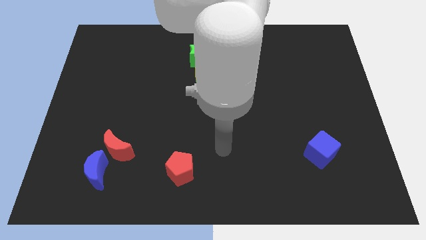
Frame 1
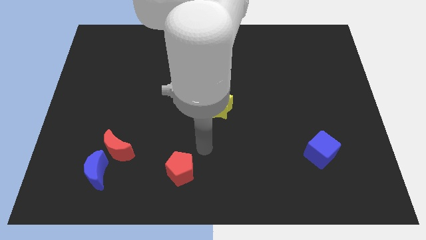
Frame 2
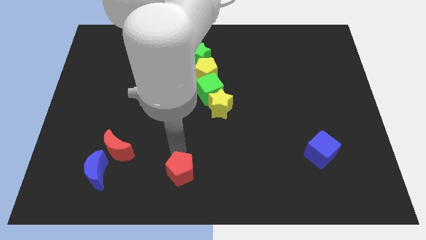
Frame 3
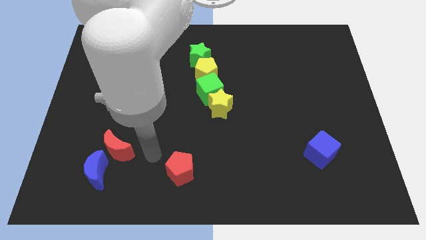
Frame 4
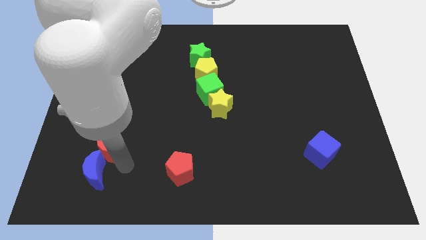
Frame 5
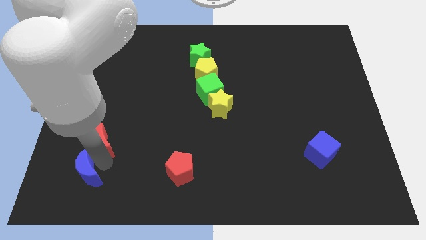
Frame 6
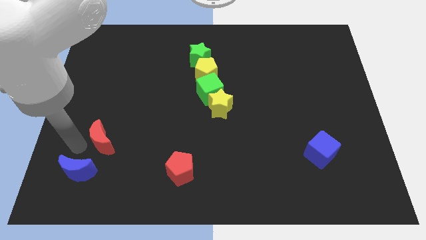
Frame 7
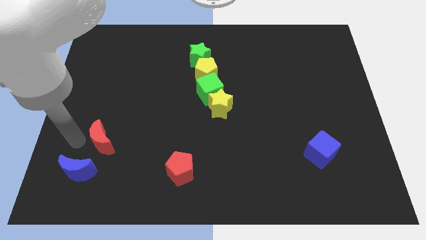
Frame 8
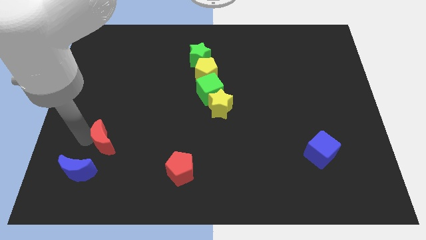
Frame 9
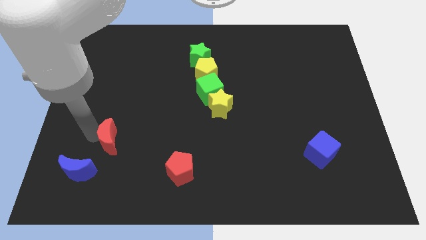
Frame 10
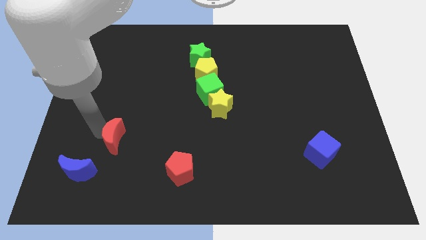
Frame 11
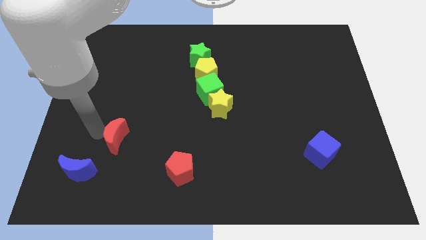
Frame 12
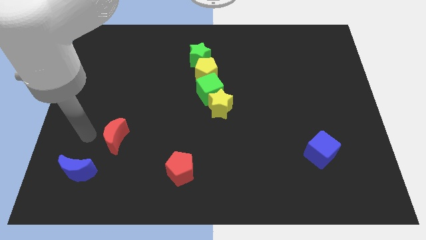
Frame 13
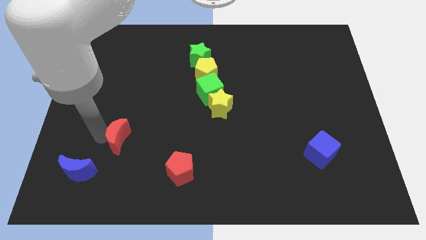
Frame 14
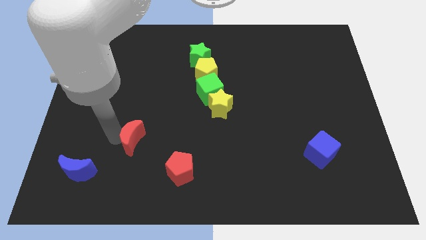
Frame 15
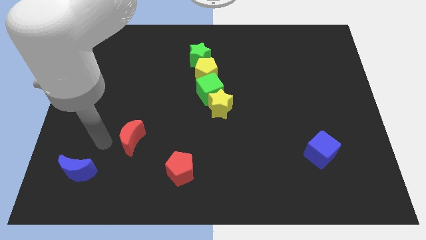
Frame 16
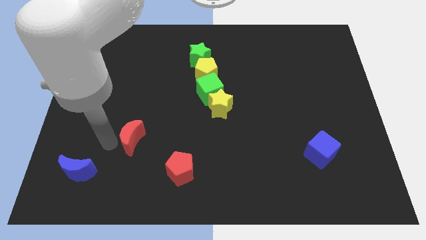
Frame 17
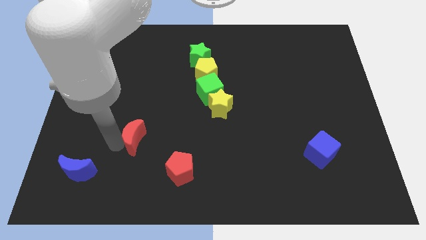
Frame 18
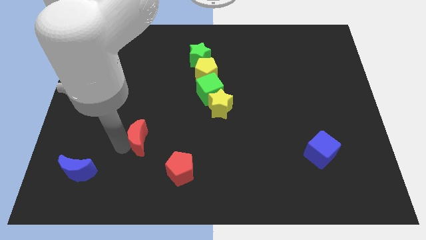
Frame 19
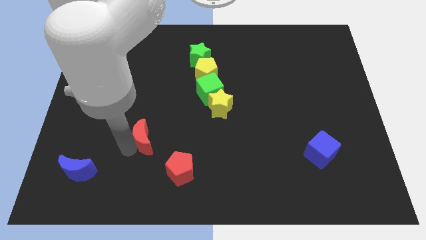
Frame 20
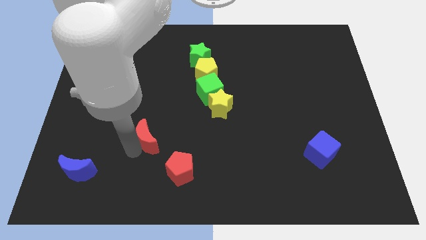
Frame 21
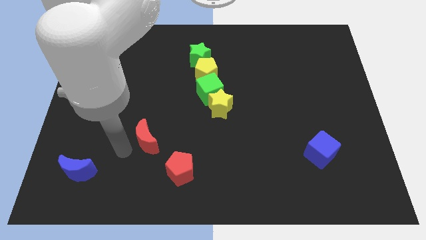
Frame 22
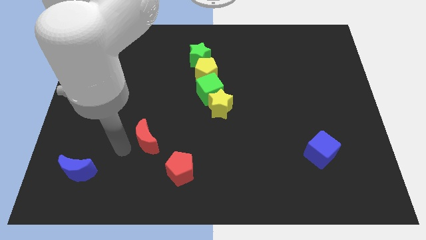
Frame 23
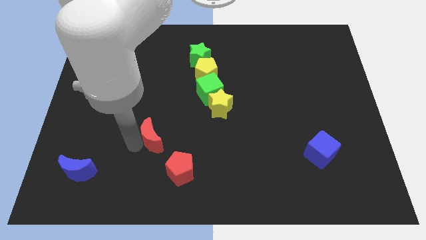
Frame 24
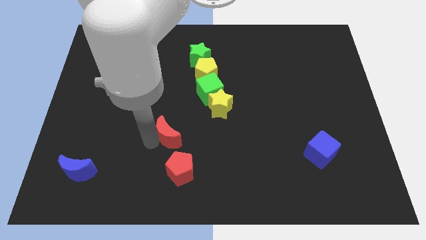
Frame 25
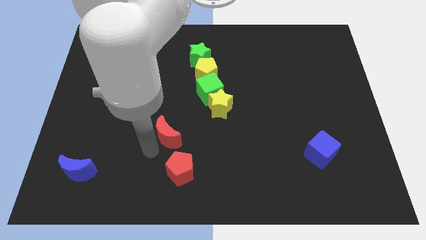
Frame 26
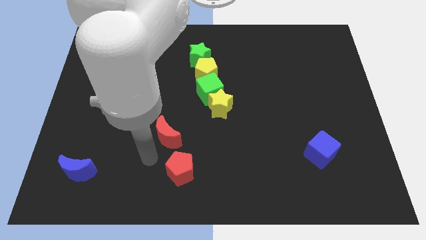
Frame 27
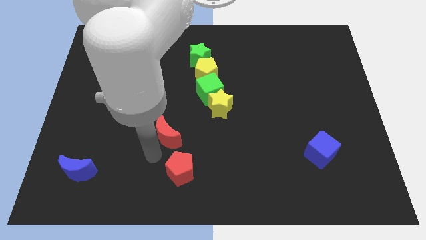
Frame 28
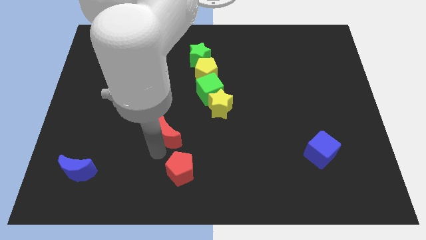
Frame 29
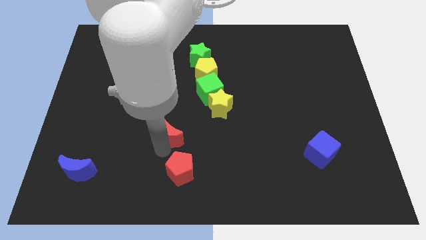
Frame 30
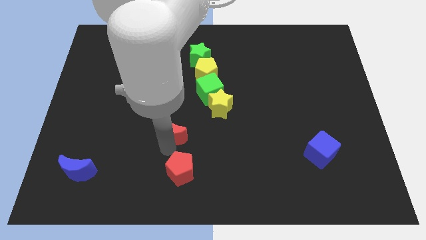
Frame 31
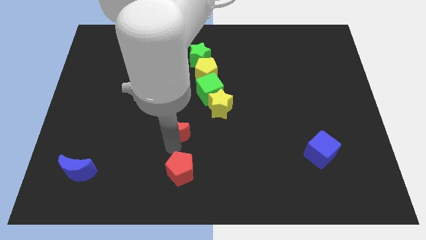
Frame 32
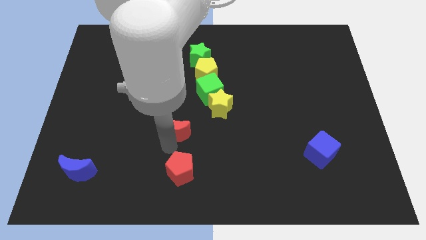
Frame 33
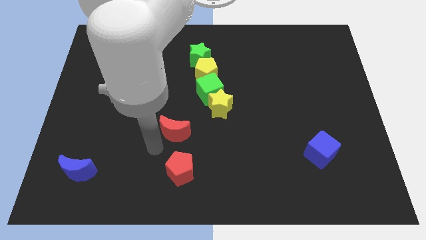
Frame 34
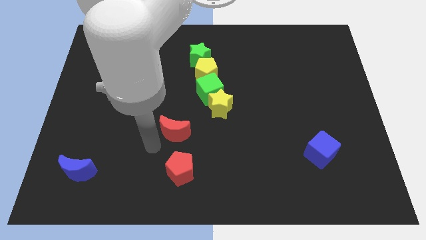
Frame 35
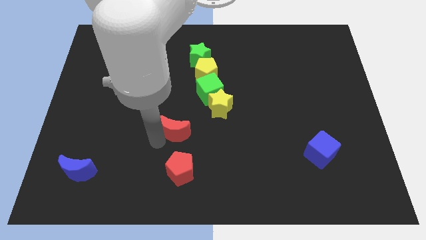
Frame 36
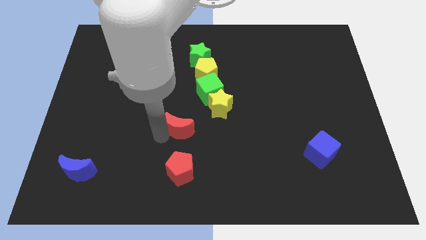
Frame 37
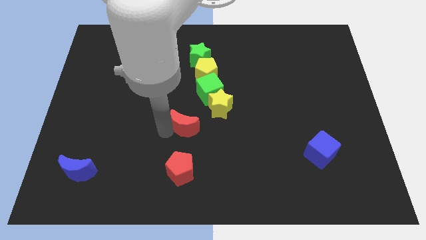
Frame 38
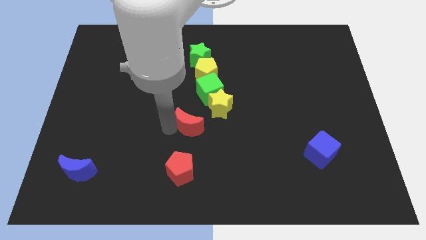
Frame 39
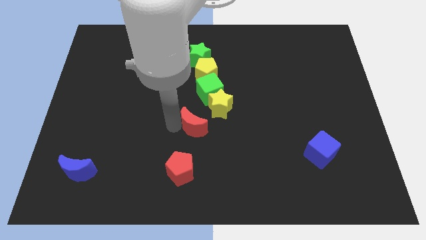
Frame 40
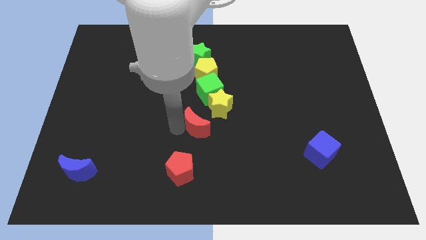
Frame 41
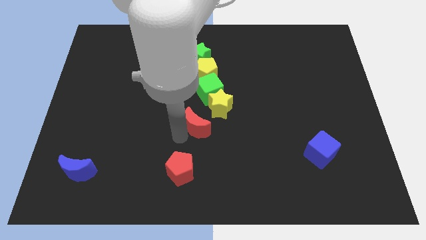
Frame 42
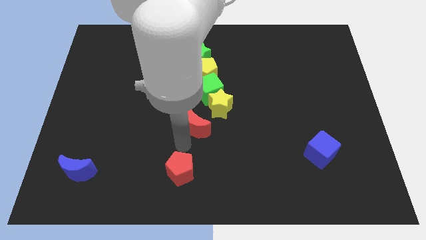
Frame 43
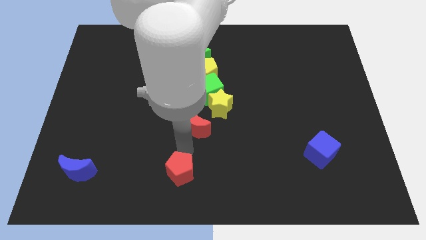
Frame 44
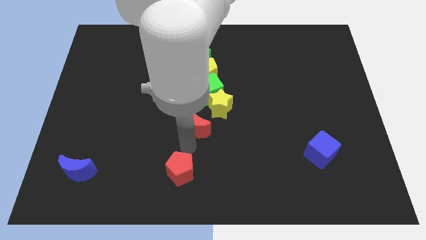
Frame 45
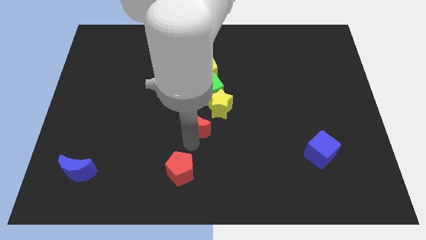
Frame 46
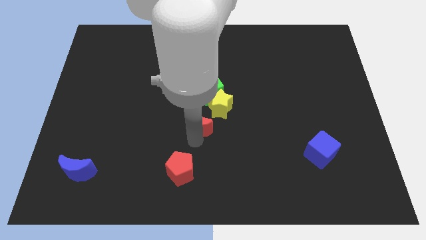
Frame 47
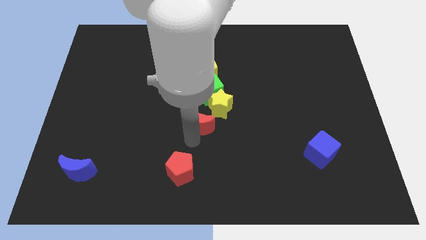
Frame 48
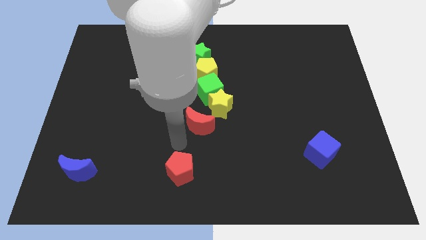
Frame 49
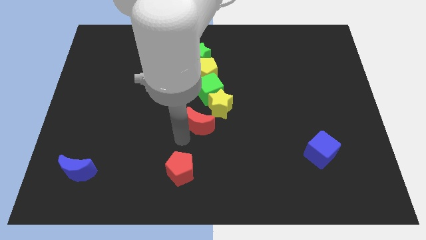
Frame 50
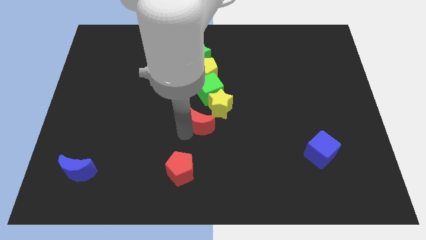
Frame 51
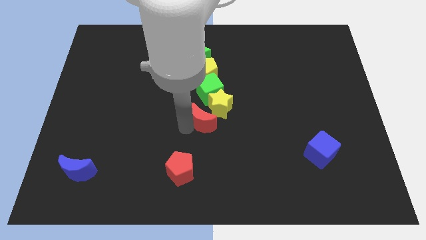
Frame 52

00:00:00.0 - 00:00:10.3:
put the red moon close to the yellow star

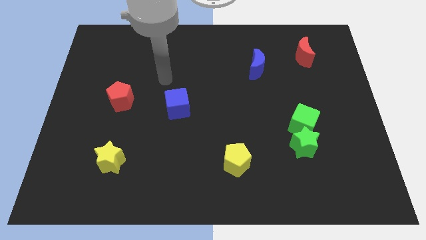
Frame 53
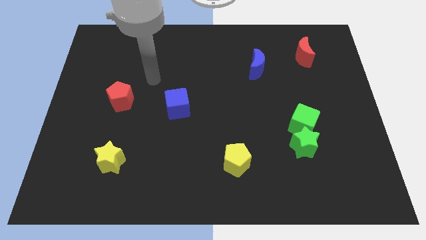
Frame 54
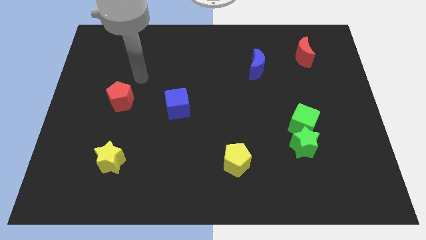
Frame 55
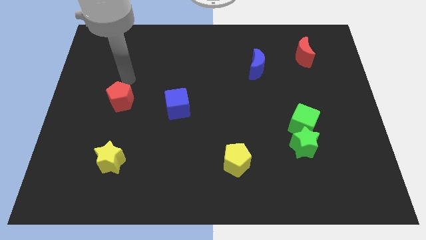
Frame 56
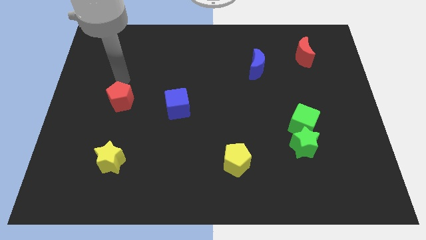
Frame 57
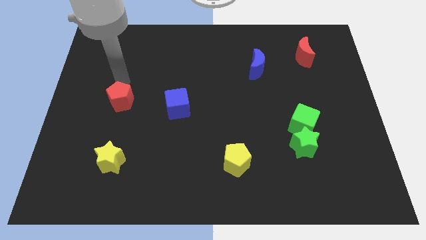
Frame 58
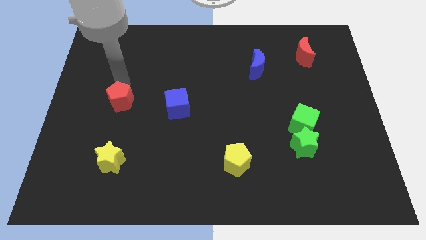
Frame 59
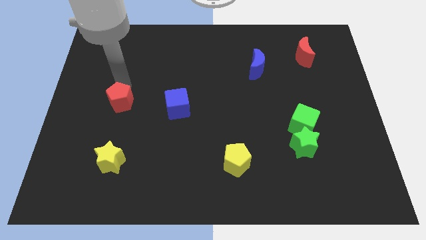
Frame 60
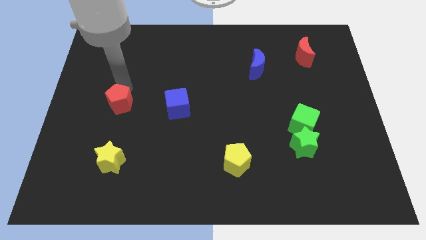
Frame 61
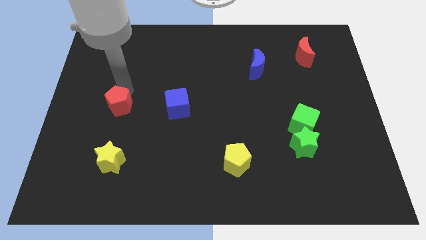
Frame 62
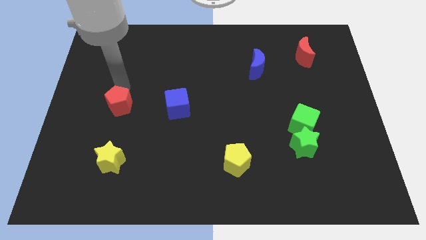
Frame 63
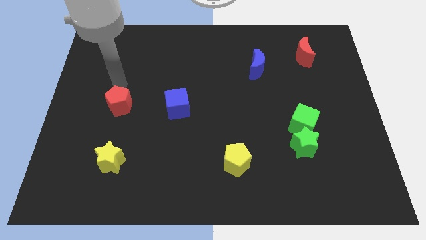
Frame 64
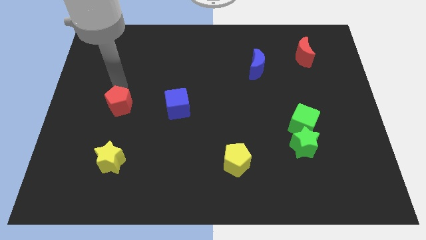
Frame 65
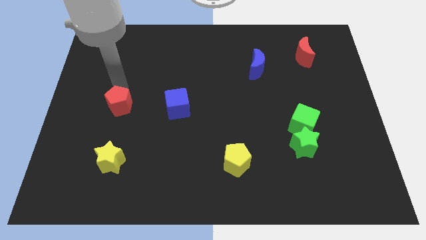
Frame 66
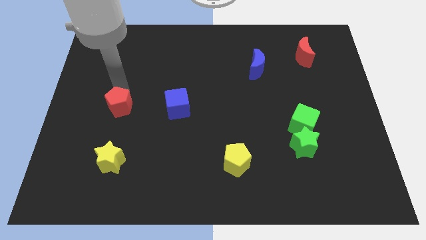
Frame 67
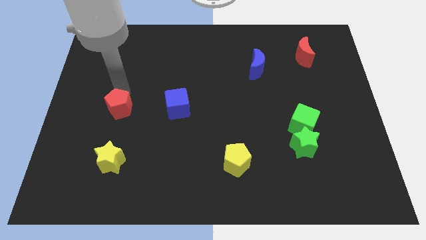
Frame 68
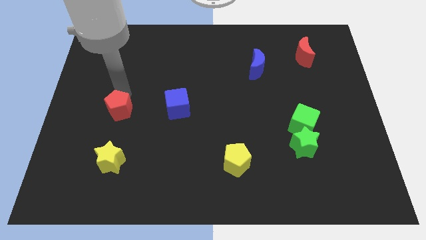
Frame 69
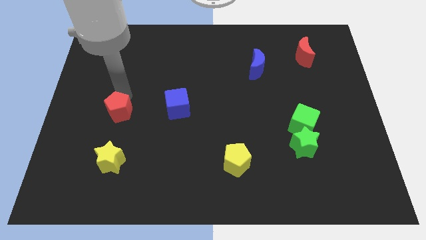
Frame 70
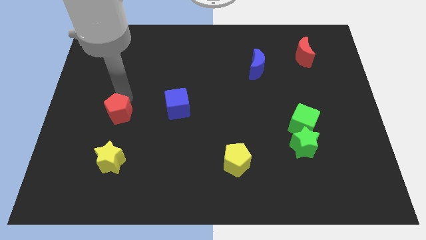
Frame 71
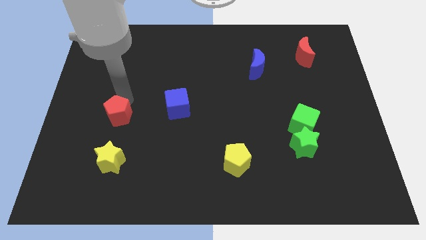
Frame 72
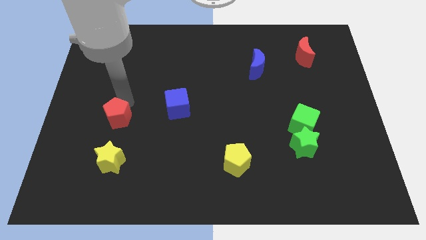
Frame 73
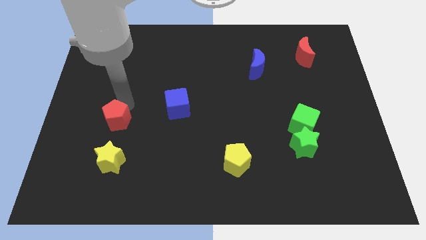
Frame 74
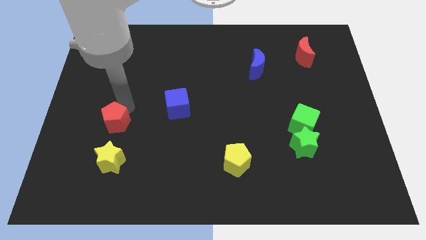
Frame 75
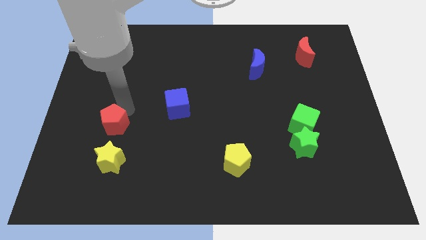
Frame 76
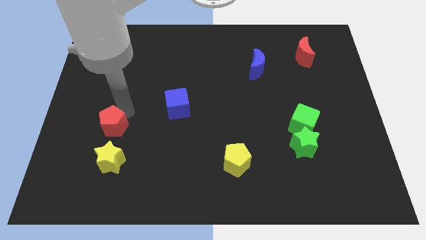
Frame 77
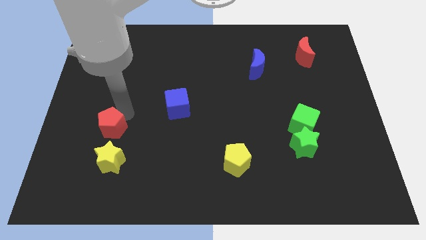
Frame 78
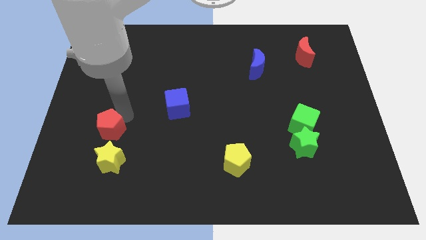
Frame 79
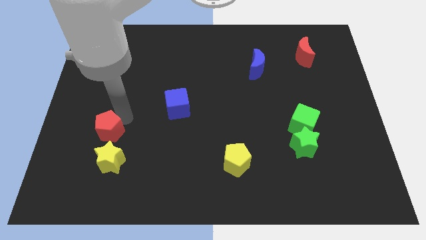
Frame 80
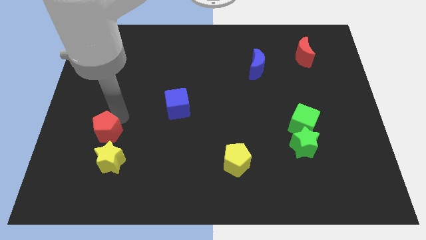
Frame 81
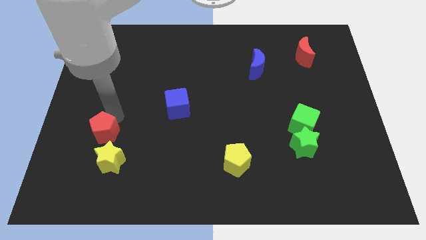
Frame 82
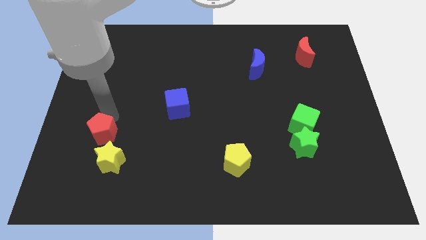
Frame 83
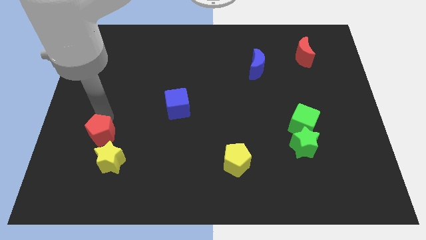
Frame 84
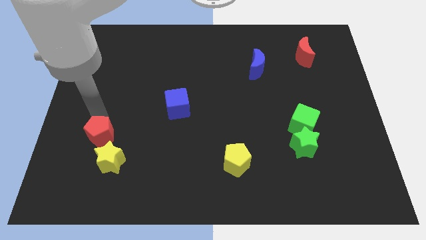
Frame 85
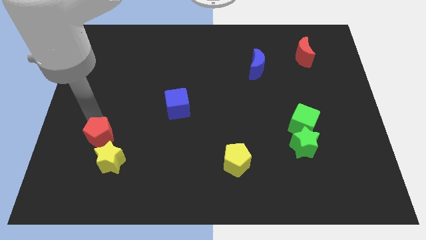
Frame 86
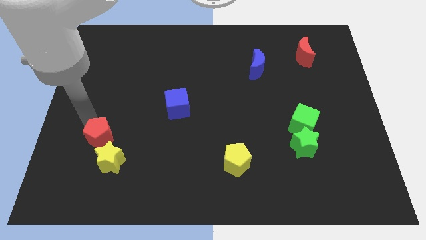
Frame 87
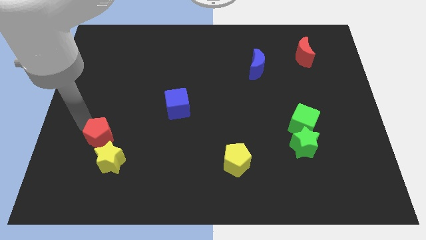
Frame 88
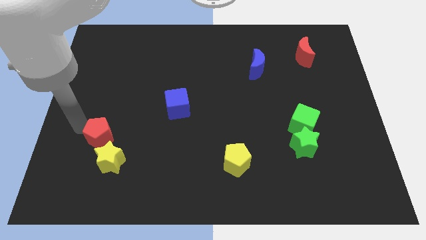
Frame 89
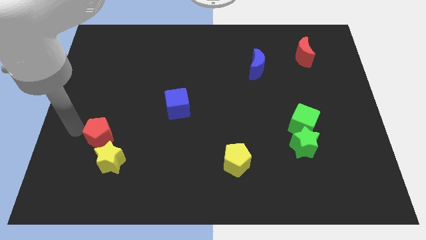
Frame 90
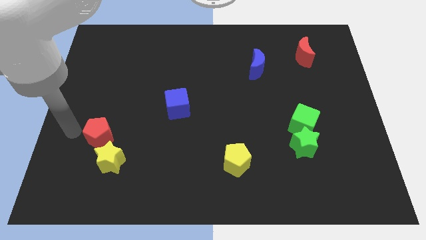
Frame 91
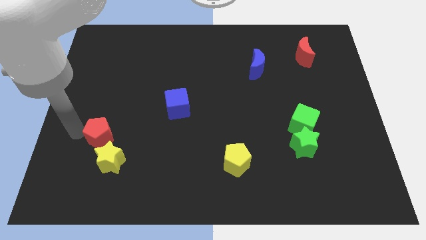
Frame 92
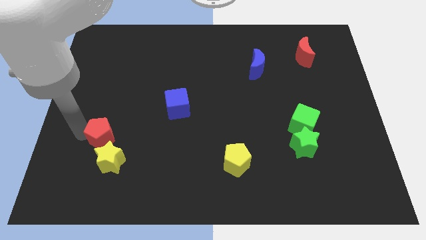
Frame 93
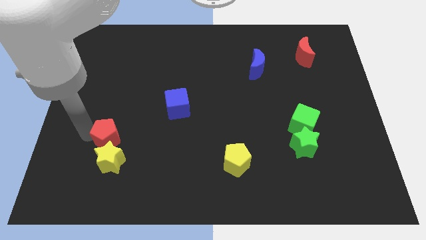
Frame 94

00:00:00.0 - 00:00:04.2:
push the red pentagon to the yellow star
